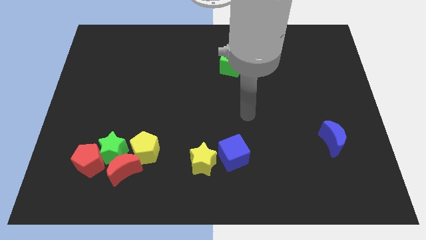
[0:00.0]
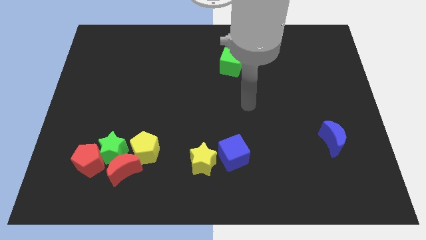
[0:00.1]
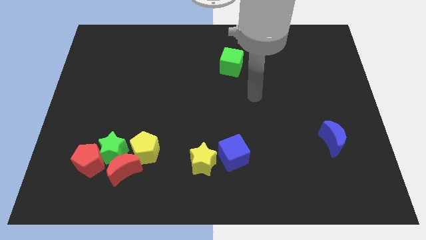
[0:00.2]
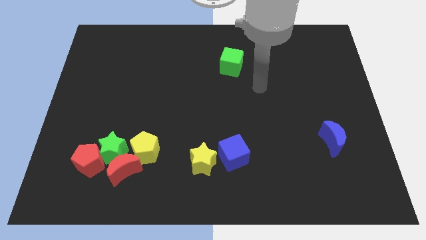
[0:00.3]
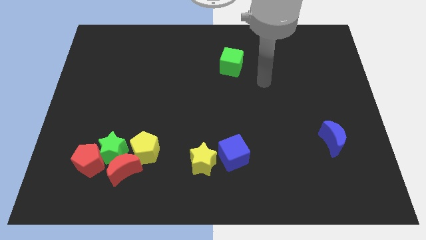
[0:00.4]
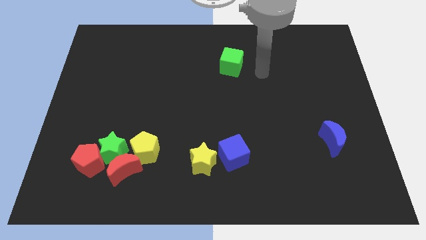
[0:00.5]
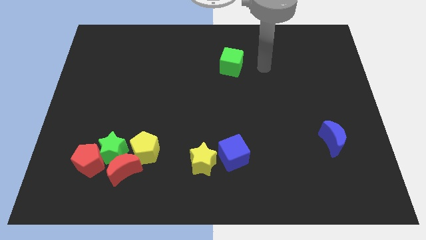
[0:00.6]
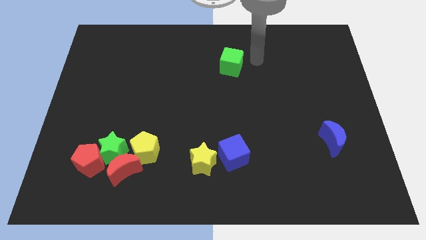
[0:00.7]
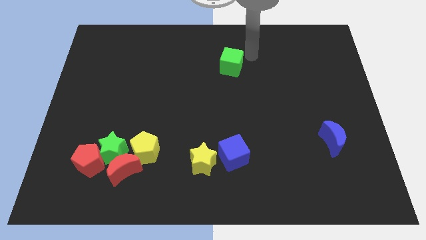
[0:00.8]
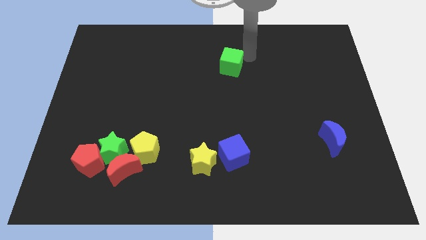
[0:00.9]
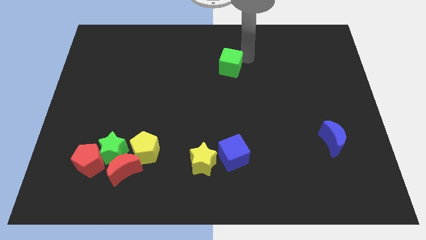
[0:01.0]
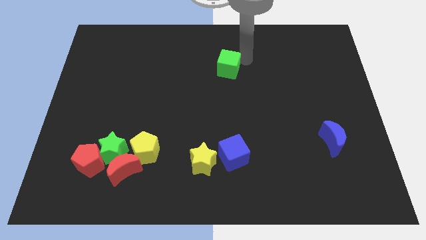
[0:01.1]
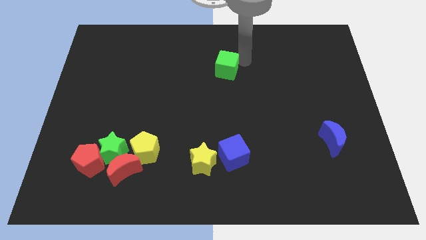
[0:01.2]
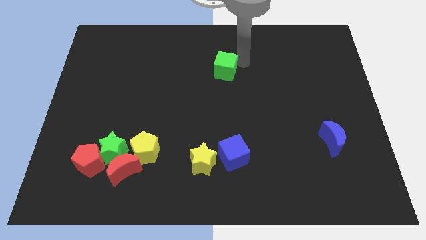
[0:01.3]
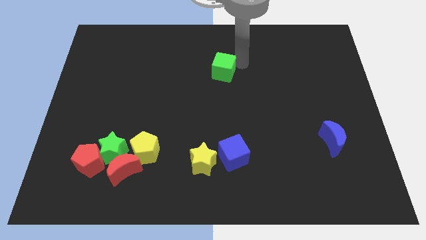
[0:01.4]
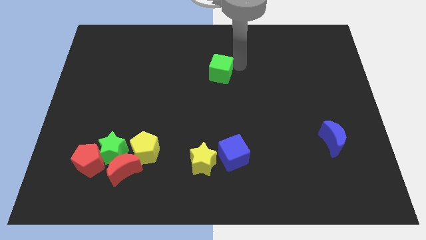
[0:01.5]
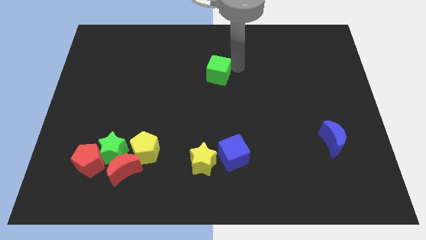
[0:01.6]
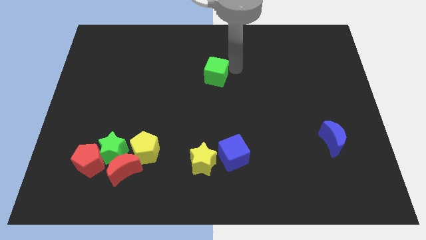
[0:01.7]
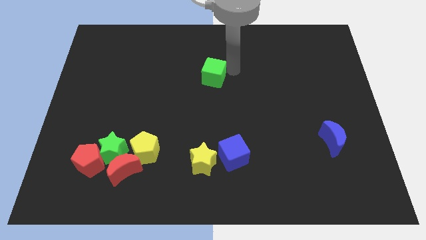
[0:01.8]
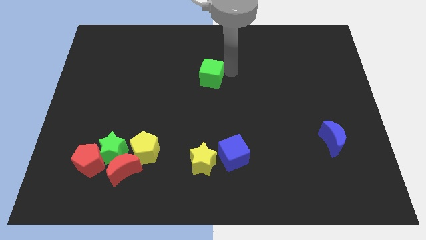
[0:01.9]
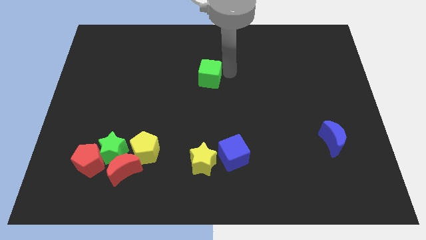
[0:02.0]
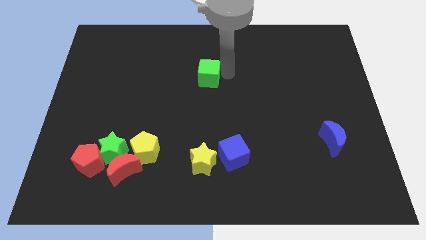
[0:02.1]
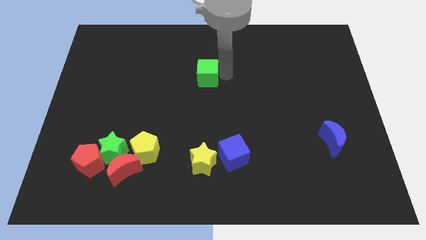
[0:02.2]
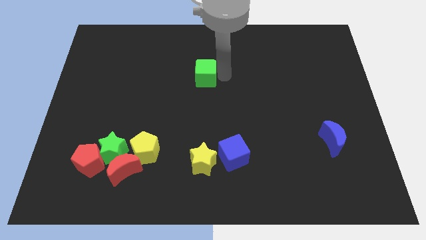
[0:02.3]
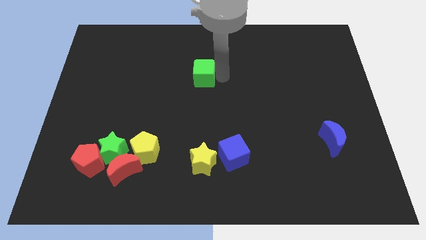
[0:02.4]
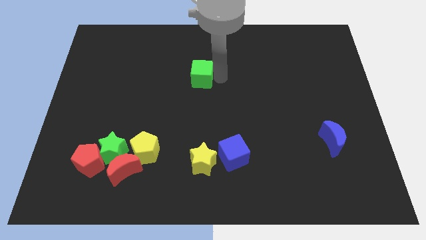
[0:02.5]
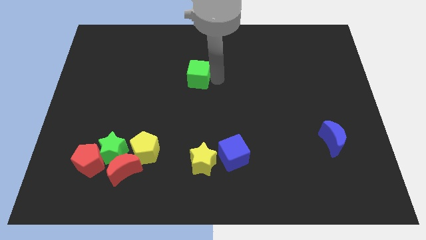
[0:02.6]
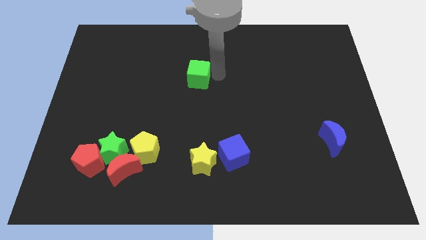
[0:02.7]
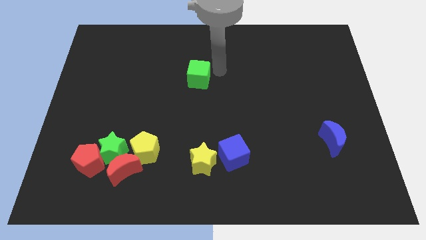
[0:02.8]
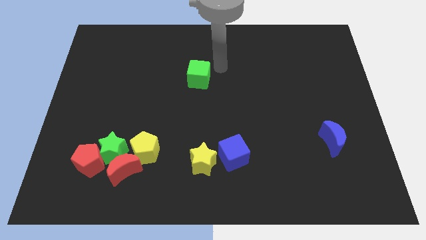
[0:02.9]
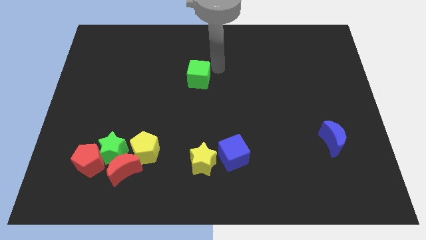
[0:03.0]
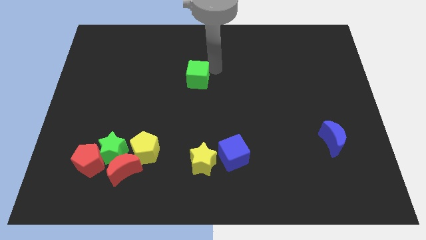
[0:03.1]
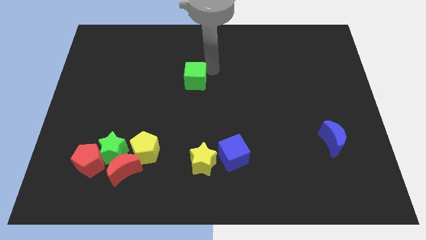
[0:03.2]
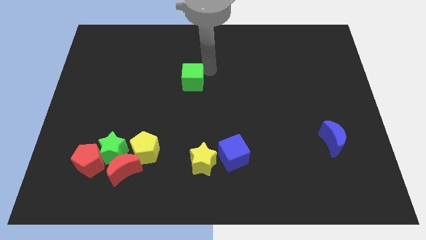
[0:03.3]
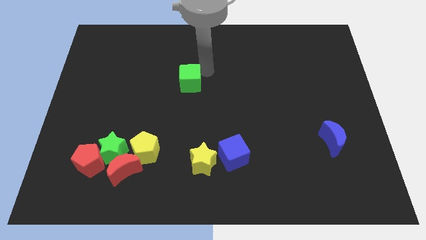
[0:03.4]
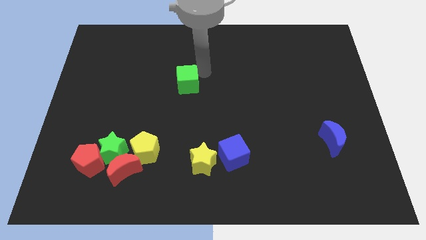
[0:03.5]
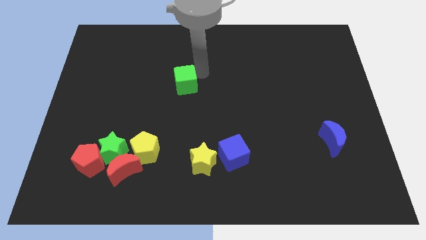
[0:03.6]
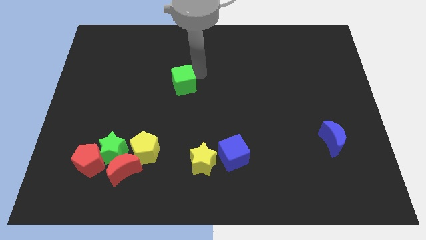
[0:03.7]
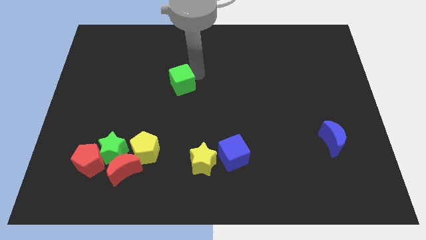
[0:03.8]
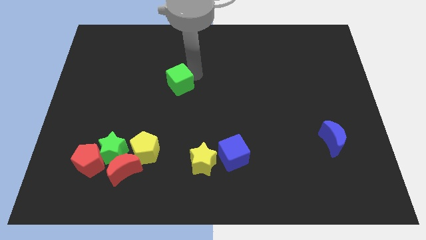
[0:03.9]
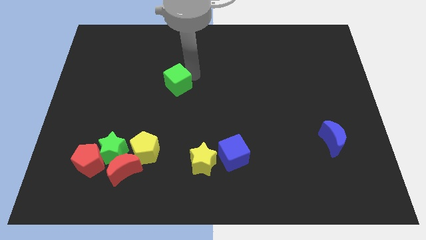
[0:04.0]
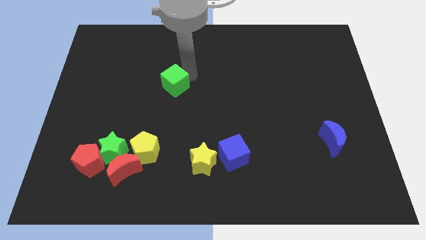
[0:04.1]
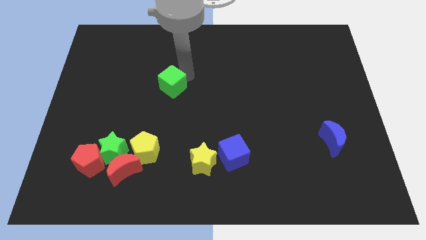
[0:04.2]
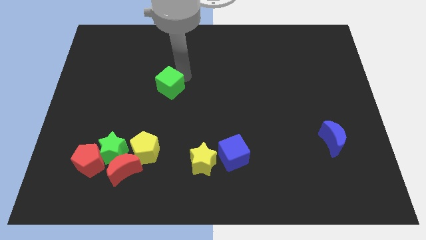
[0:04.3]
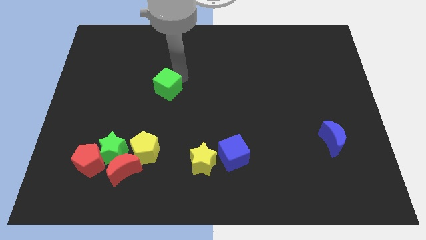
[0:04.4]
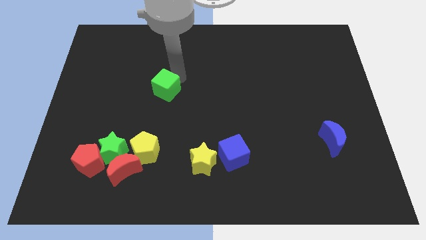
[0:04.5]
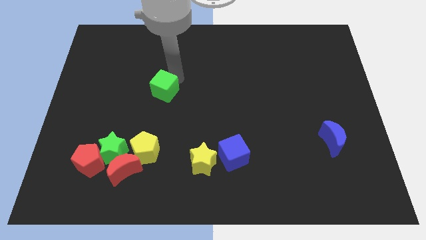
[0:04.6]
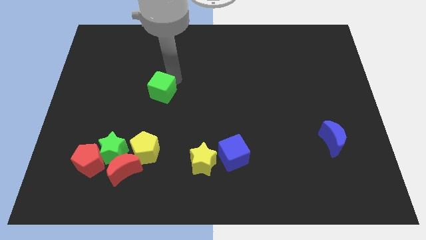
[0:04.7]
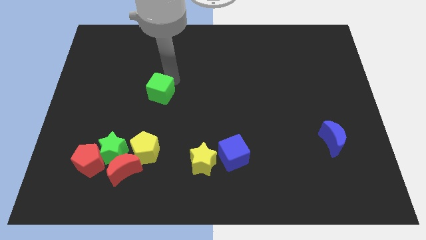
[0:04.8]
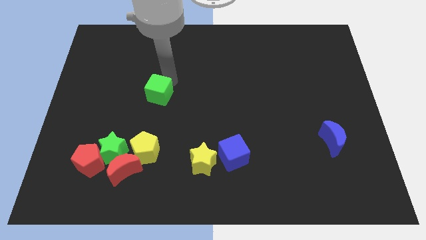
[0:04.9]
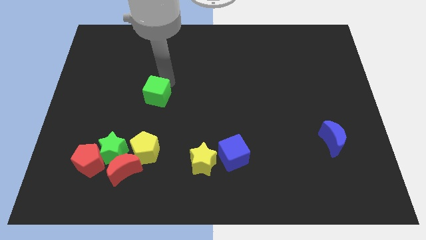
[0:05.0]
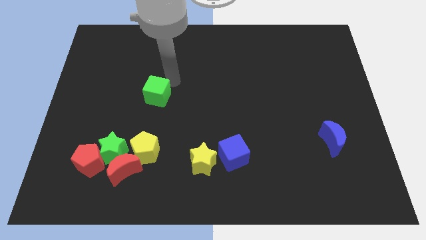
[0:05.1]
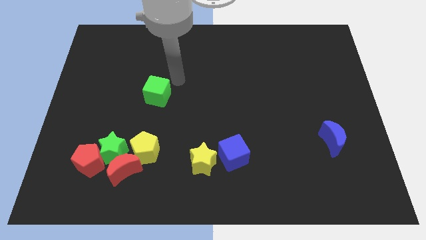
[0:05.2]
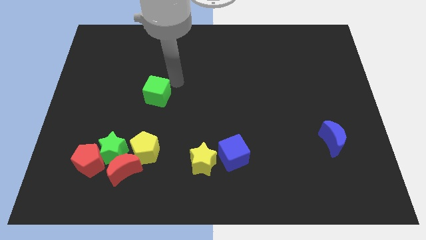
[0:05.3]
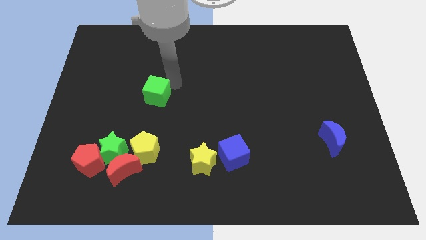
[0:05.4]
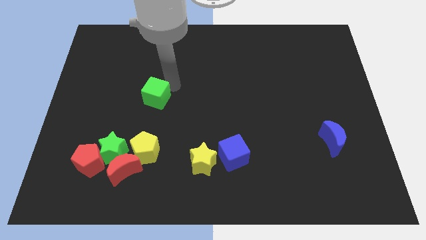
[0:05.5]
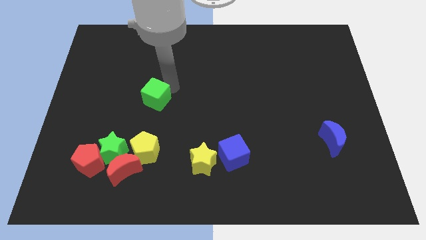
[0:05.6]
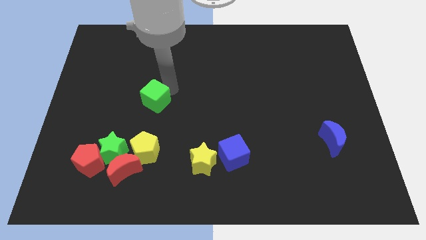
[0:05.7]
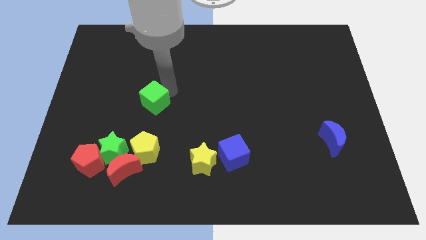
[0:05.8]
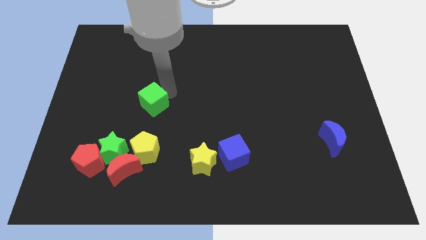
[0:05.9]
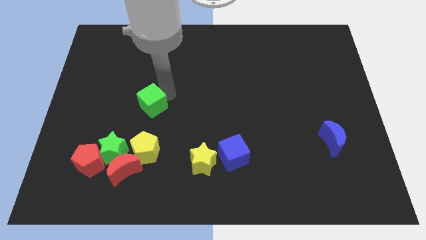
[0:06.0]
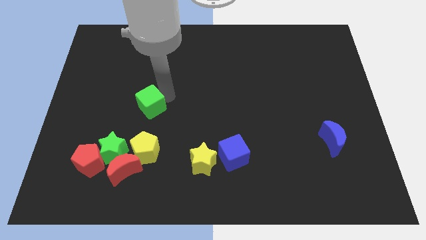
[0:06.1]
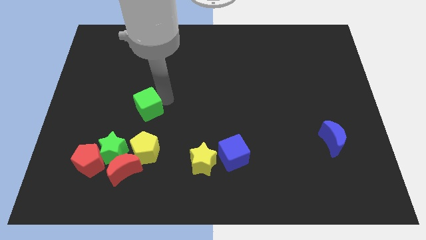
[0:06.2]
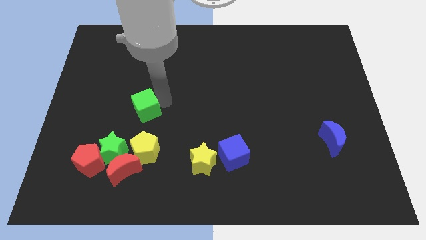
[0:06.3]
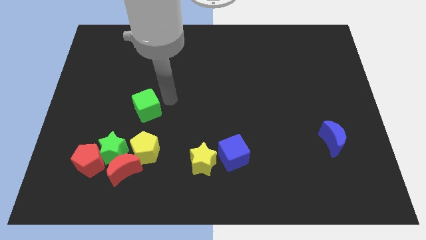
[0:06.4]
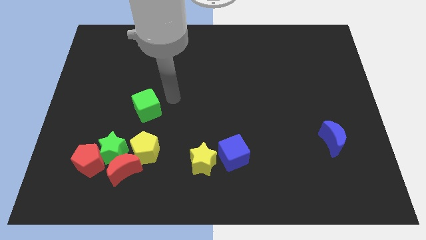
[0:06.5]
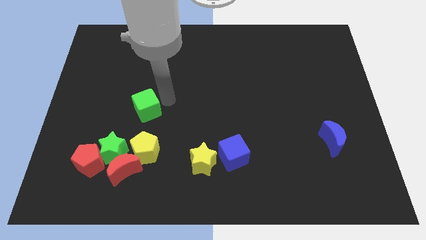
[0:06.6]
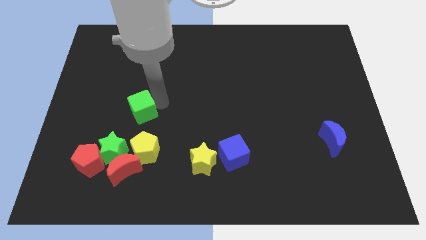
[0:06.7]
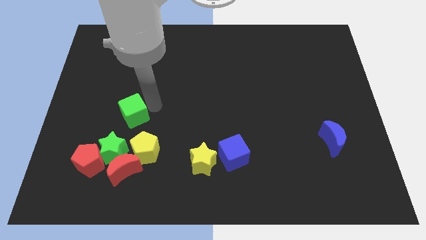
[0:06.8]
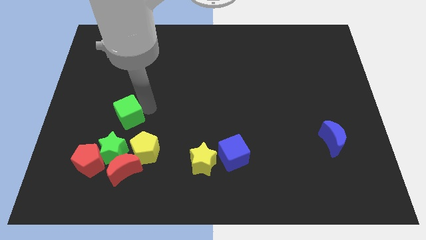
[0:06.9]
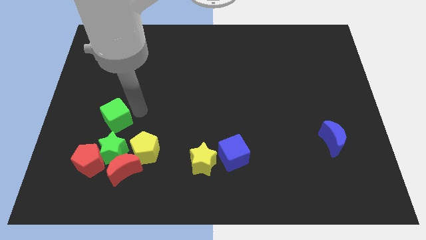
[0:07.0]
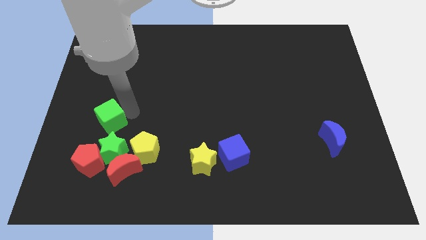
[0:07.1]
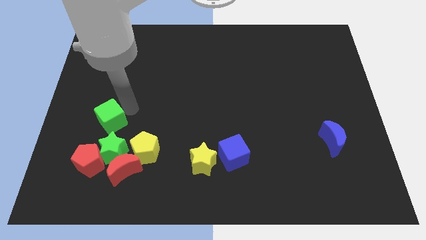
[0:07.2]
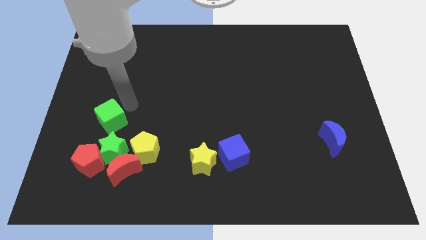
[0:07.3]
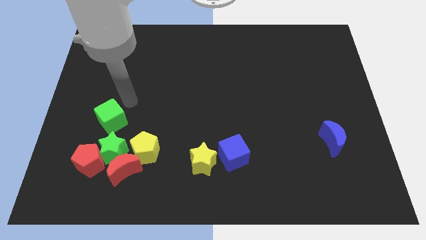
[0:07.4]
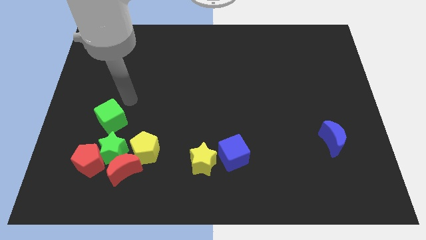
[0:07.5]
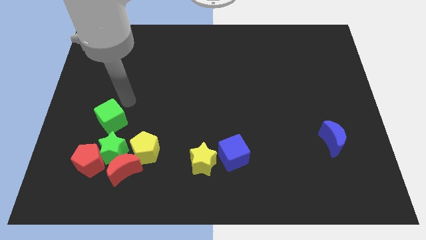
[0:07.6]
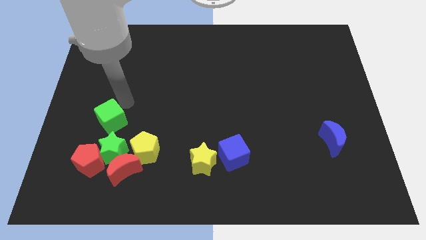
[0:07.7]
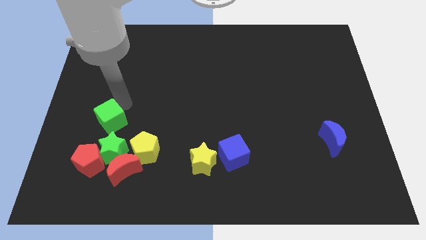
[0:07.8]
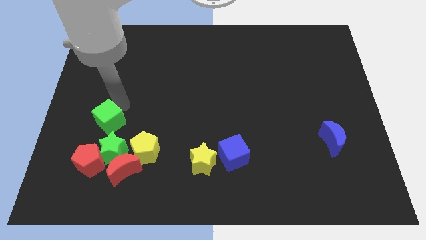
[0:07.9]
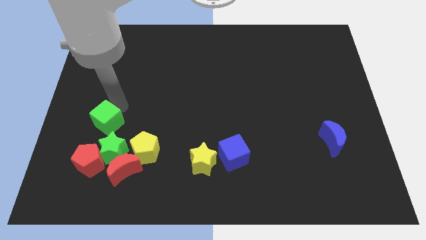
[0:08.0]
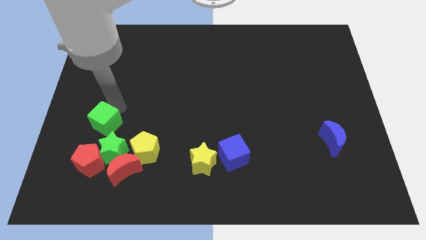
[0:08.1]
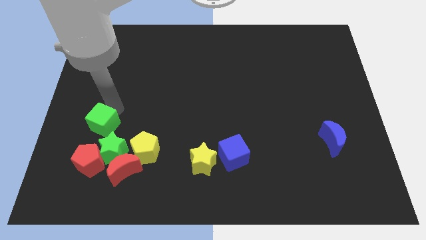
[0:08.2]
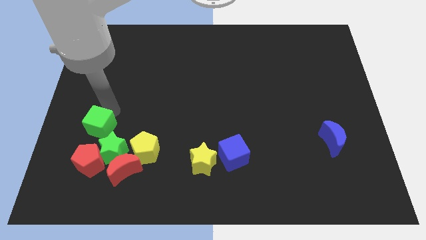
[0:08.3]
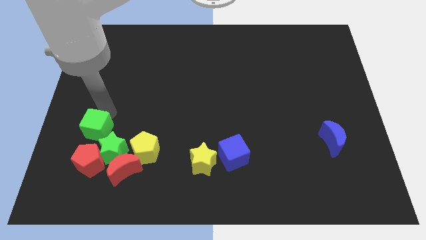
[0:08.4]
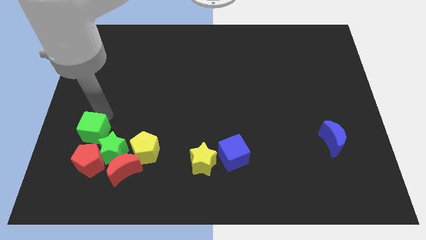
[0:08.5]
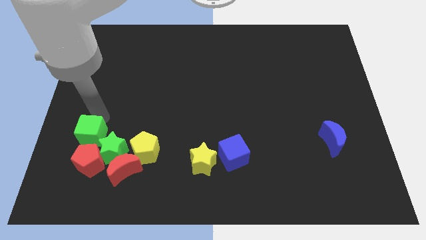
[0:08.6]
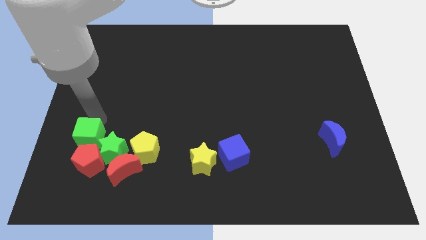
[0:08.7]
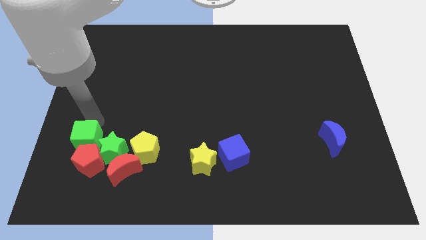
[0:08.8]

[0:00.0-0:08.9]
put the green cube next to the red pentagon
